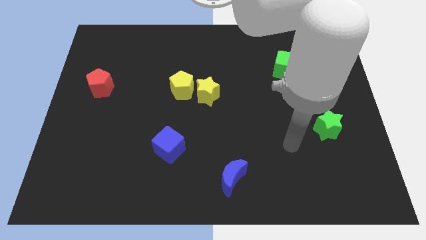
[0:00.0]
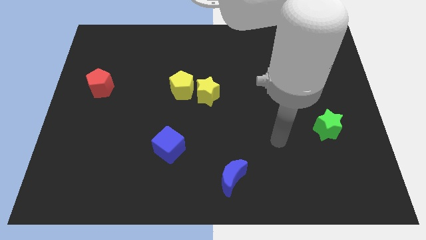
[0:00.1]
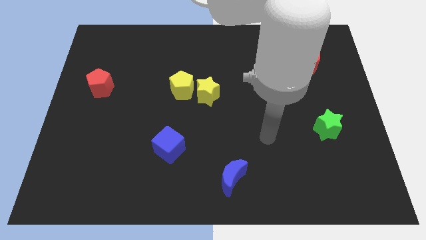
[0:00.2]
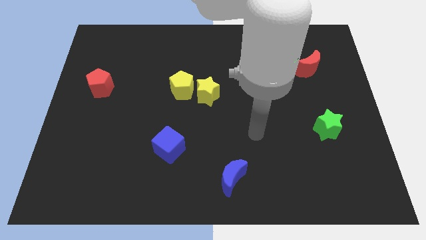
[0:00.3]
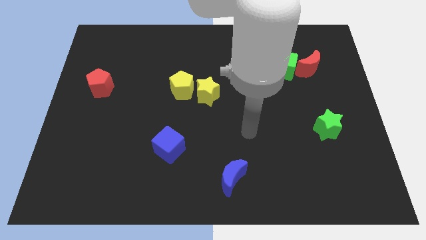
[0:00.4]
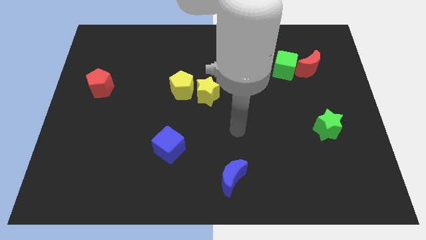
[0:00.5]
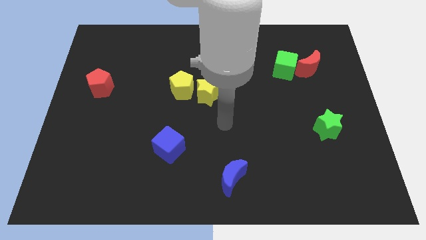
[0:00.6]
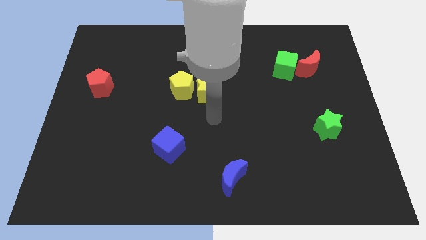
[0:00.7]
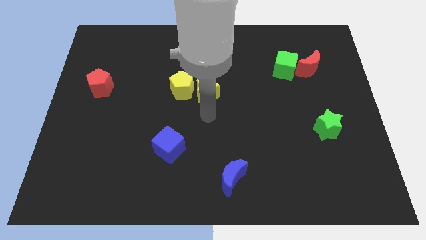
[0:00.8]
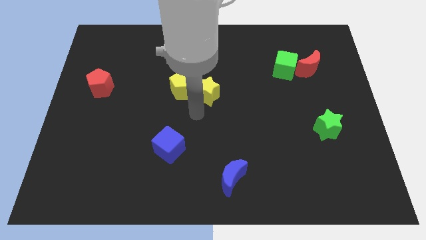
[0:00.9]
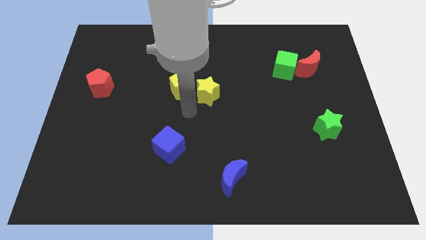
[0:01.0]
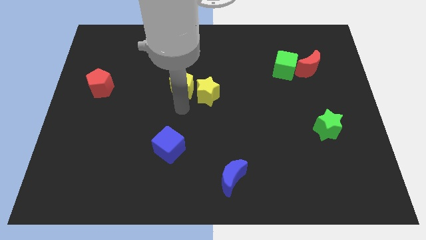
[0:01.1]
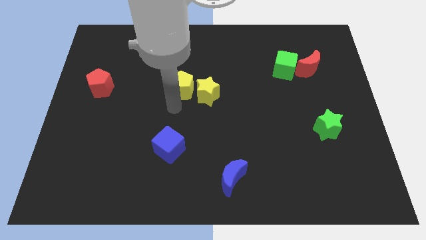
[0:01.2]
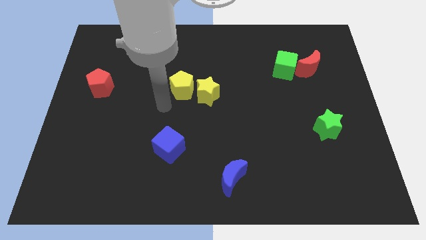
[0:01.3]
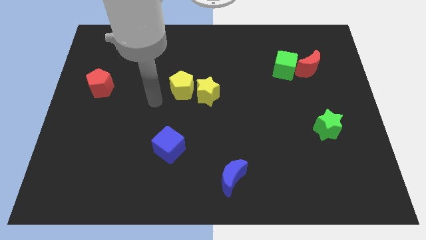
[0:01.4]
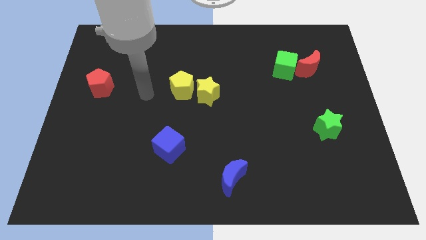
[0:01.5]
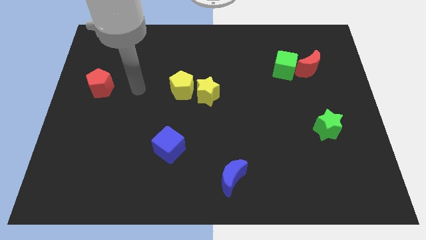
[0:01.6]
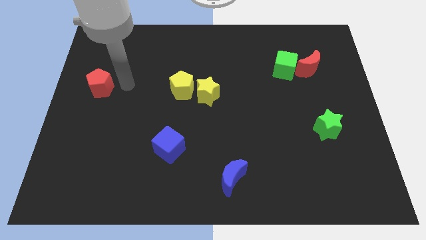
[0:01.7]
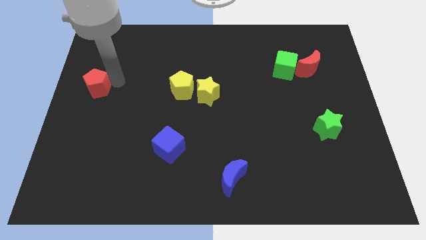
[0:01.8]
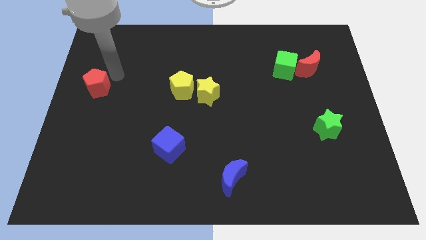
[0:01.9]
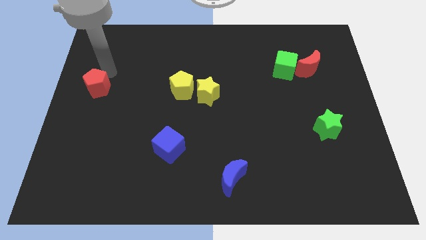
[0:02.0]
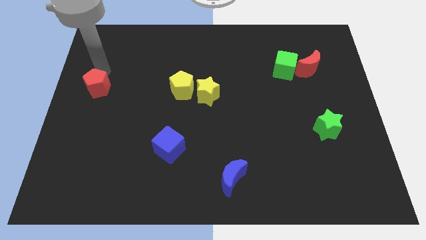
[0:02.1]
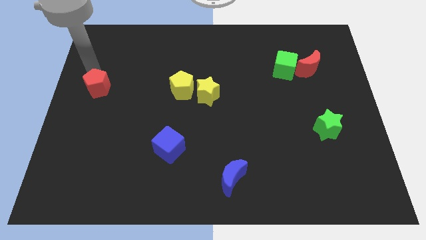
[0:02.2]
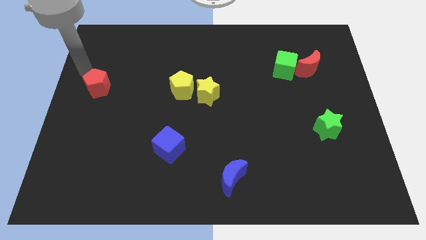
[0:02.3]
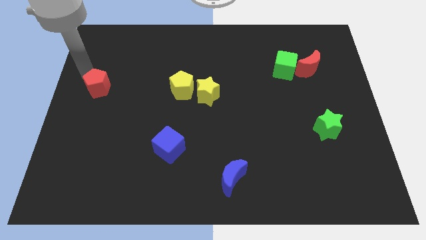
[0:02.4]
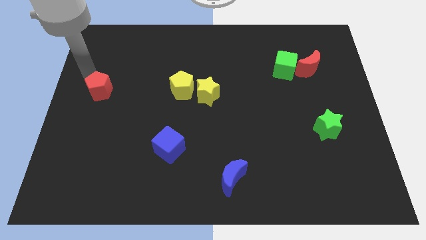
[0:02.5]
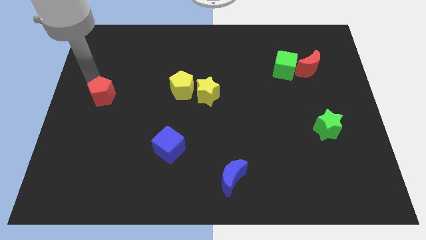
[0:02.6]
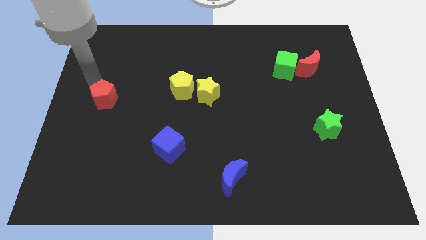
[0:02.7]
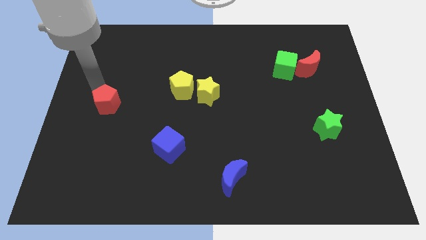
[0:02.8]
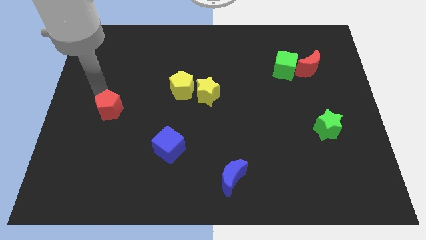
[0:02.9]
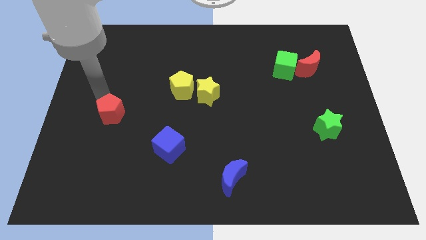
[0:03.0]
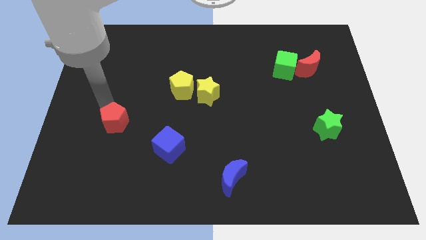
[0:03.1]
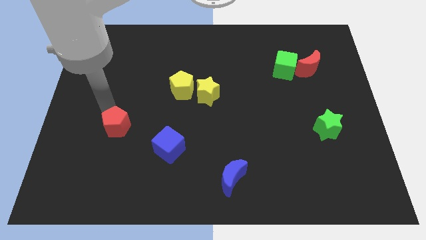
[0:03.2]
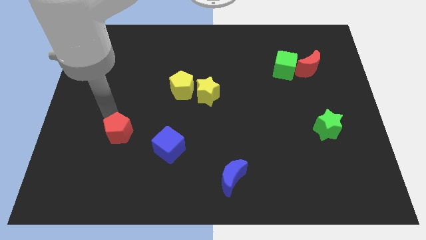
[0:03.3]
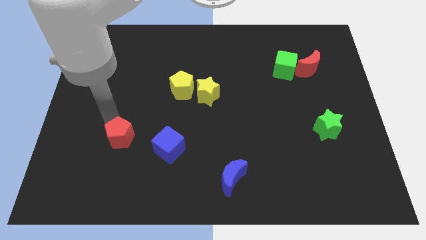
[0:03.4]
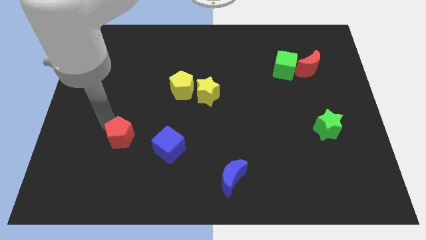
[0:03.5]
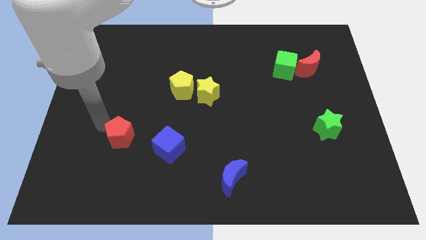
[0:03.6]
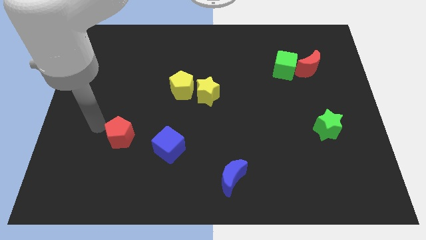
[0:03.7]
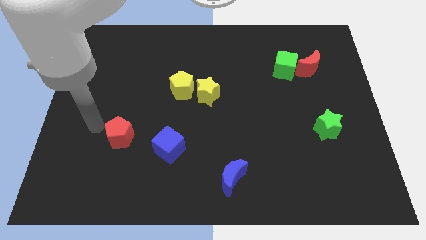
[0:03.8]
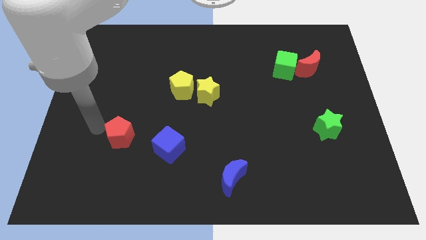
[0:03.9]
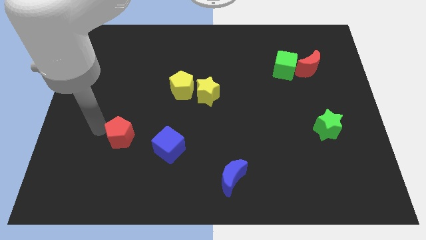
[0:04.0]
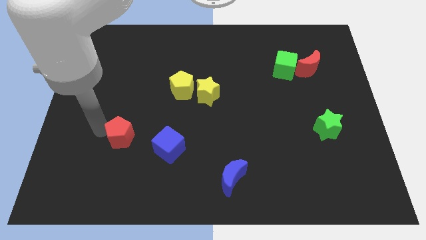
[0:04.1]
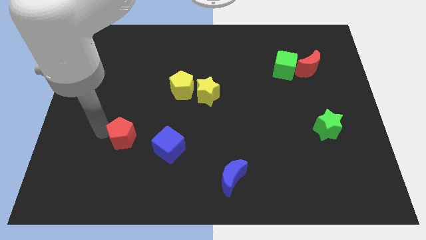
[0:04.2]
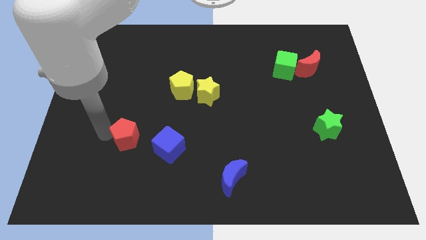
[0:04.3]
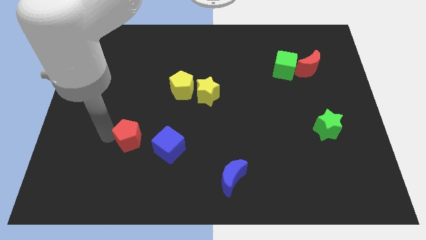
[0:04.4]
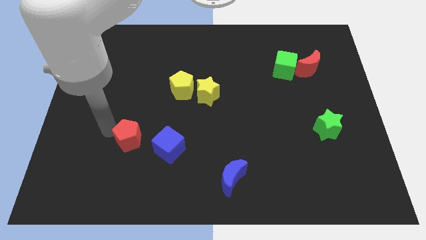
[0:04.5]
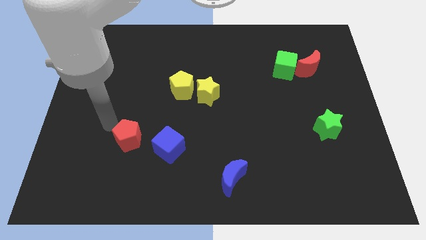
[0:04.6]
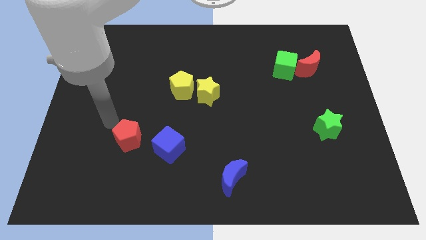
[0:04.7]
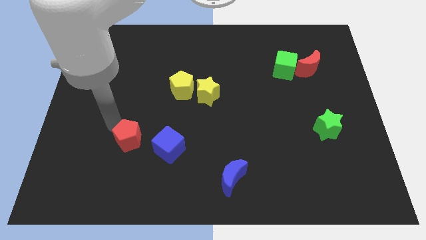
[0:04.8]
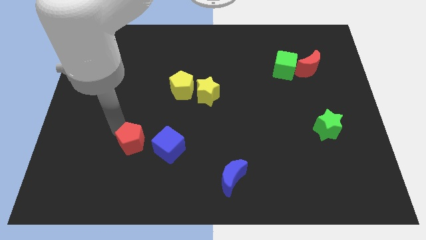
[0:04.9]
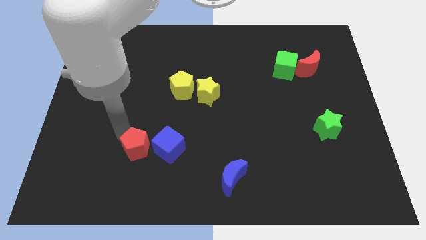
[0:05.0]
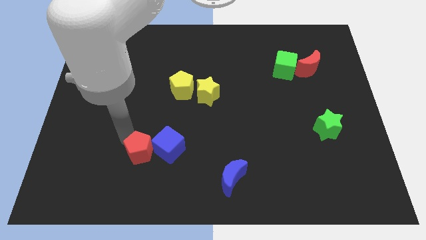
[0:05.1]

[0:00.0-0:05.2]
move the red pentagon downwards and right

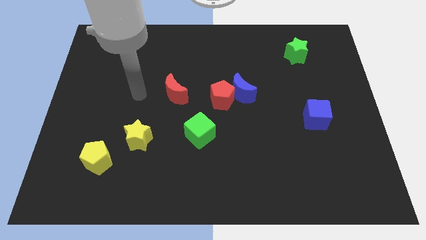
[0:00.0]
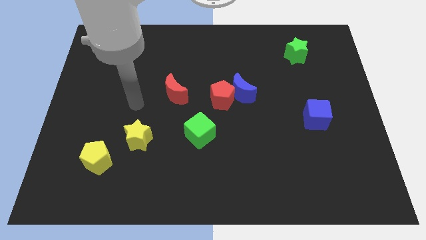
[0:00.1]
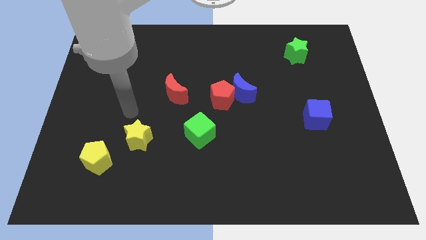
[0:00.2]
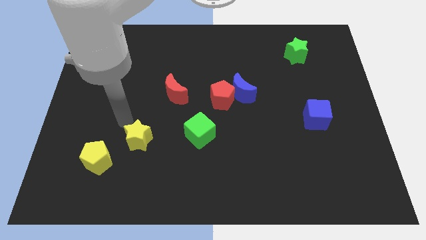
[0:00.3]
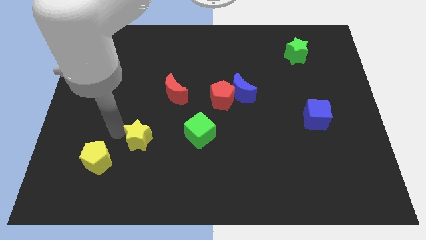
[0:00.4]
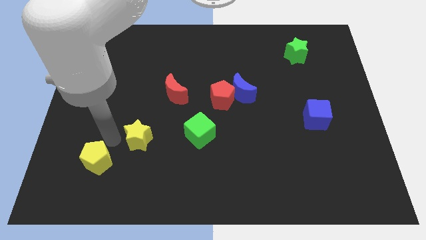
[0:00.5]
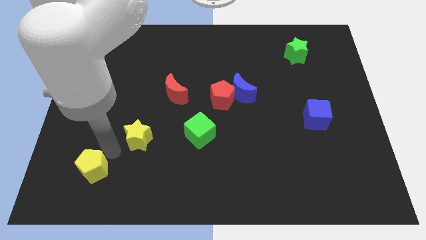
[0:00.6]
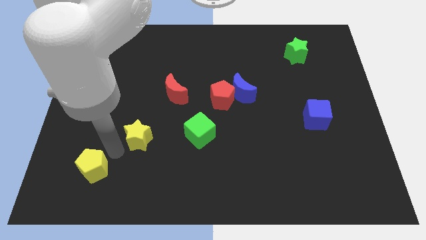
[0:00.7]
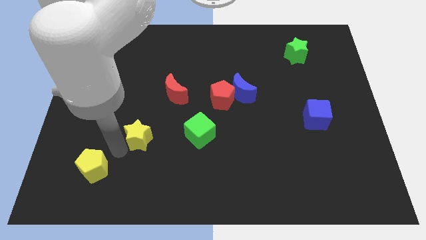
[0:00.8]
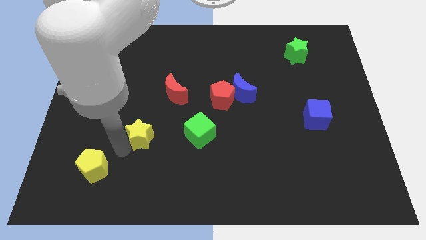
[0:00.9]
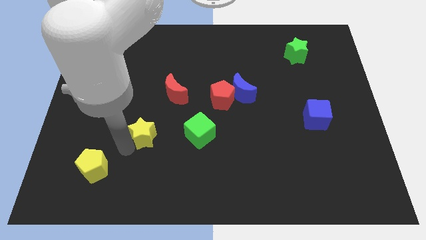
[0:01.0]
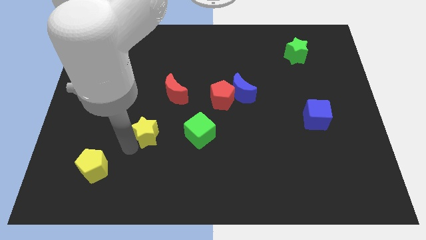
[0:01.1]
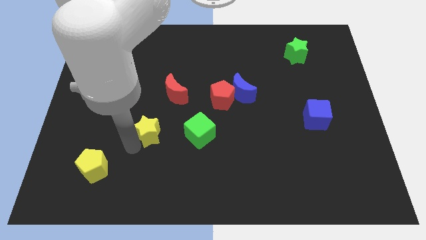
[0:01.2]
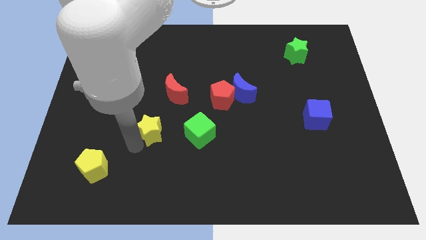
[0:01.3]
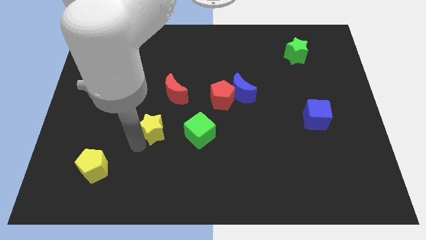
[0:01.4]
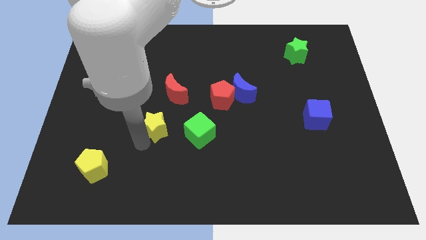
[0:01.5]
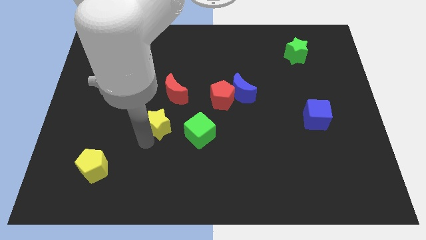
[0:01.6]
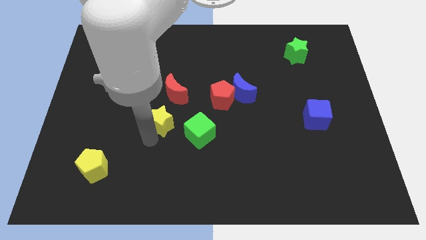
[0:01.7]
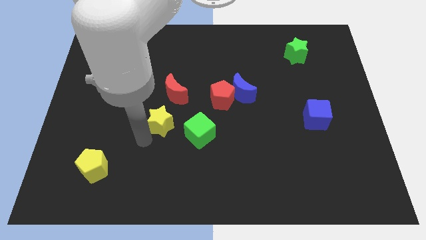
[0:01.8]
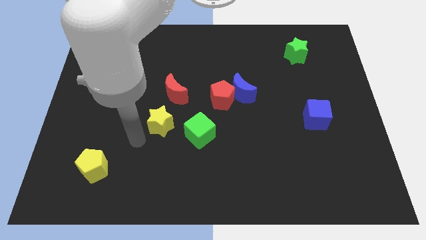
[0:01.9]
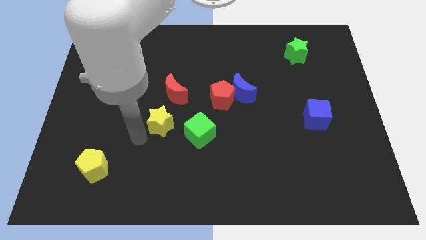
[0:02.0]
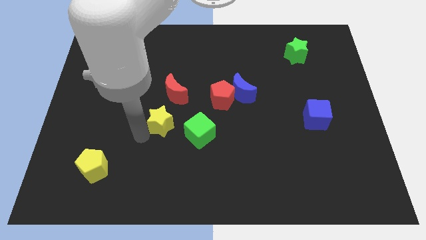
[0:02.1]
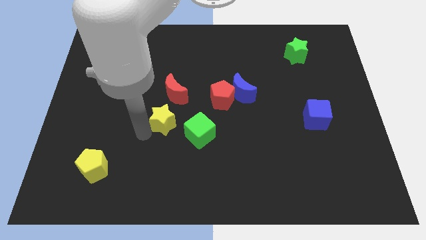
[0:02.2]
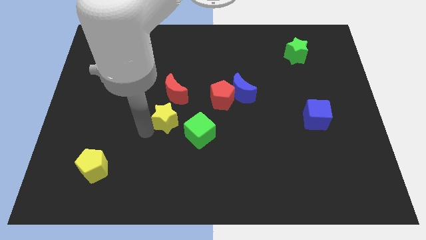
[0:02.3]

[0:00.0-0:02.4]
move the yellow star a bit up and then right

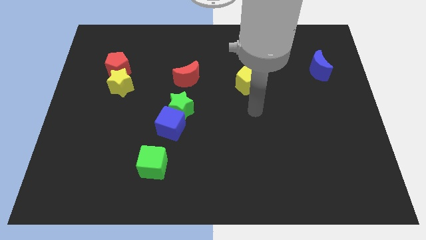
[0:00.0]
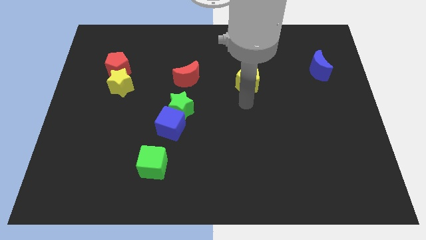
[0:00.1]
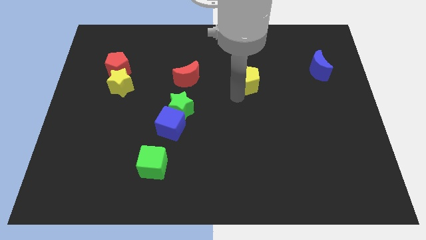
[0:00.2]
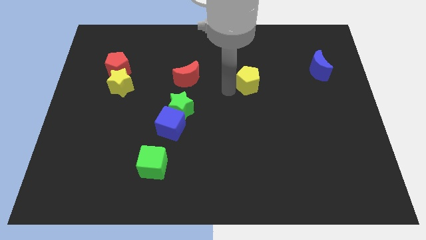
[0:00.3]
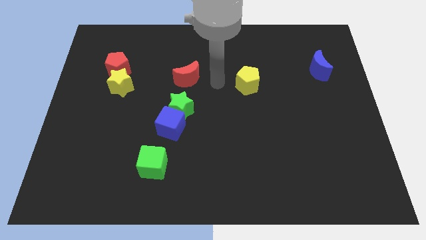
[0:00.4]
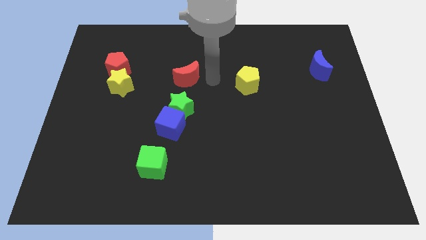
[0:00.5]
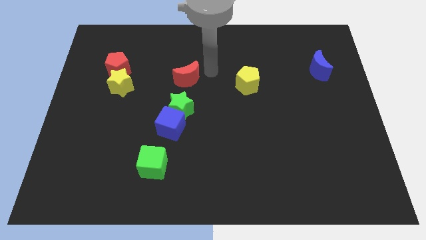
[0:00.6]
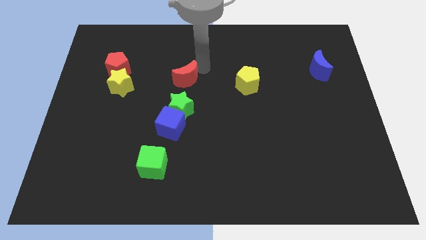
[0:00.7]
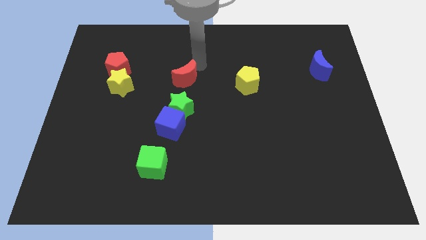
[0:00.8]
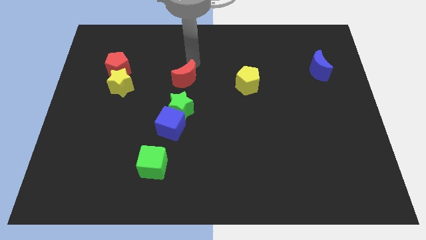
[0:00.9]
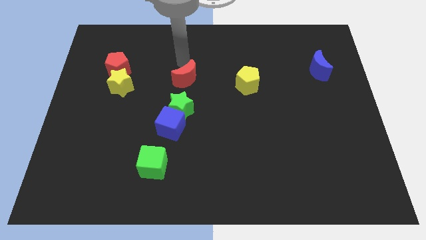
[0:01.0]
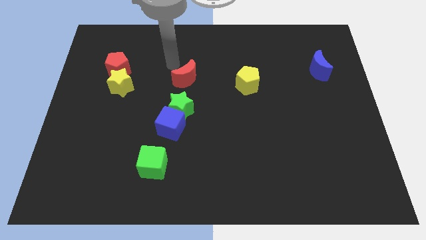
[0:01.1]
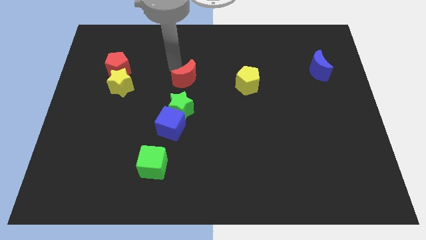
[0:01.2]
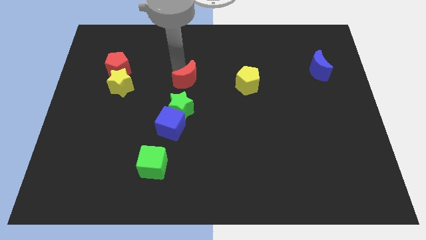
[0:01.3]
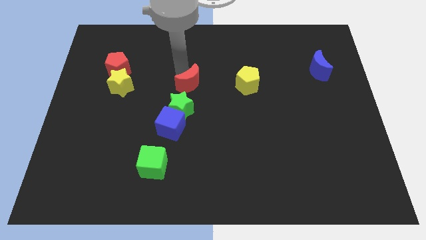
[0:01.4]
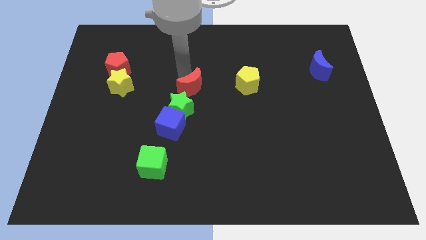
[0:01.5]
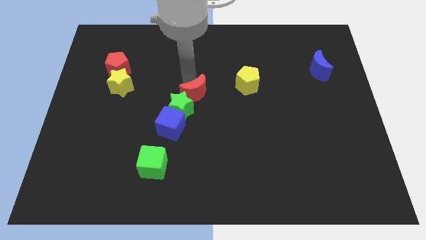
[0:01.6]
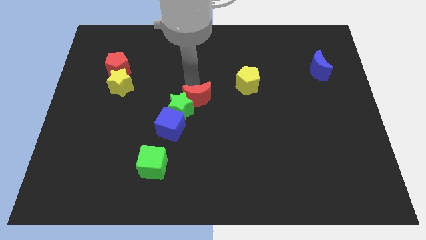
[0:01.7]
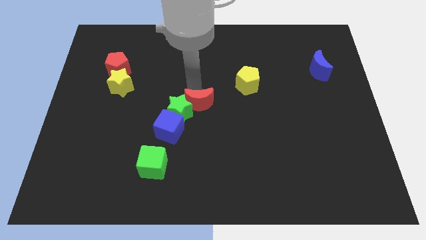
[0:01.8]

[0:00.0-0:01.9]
slightly push the red moon downwards
